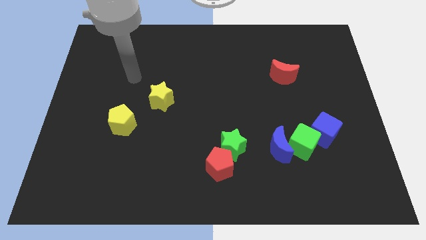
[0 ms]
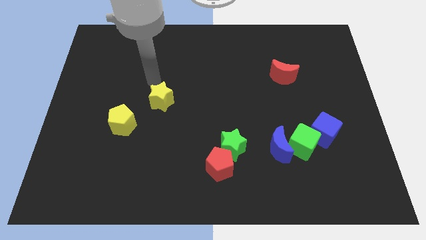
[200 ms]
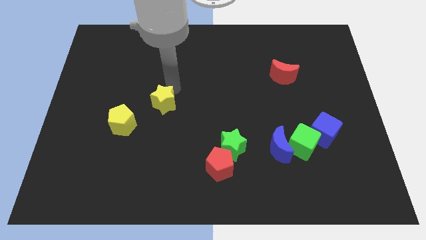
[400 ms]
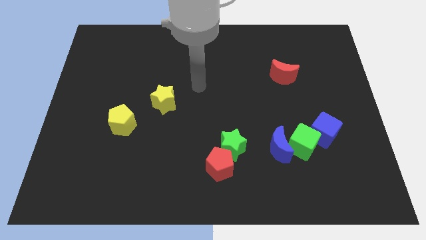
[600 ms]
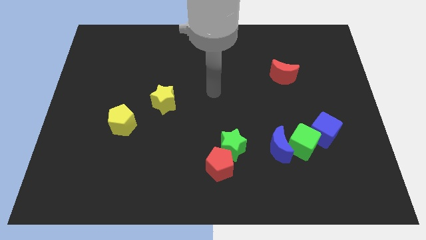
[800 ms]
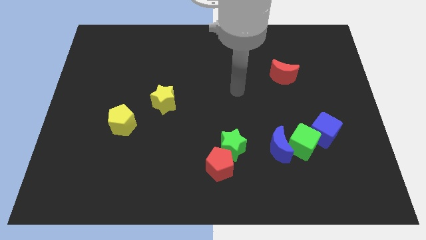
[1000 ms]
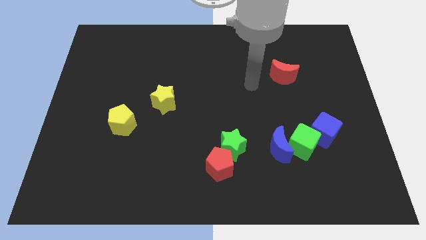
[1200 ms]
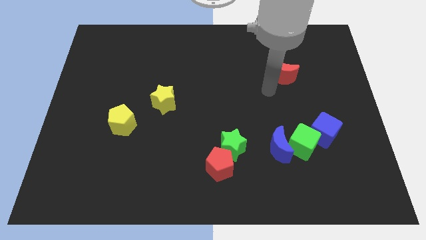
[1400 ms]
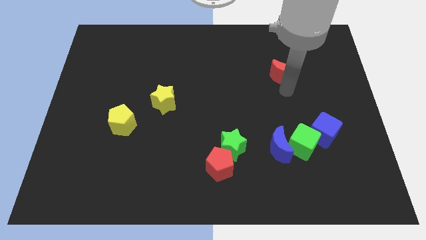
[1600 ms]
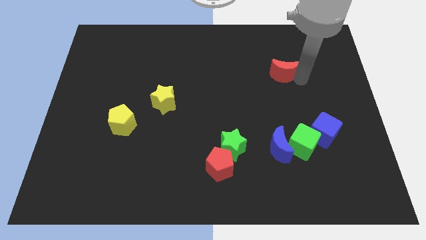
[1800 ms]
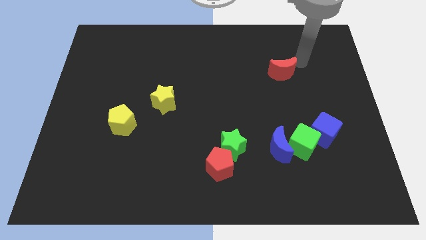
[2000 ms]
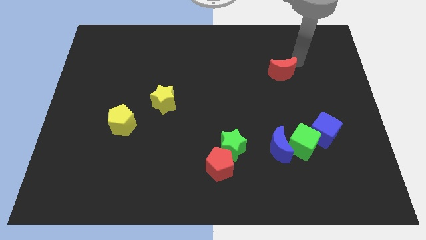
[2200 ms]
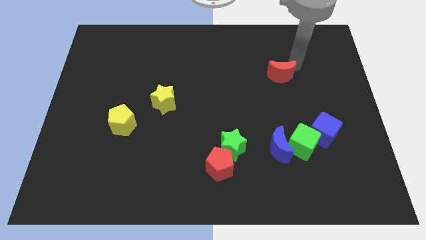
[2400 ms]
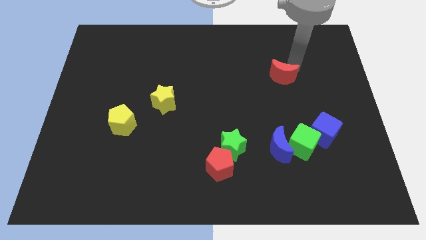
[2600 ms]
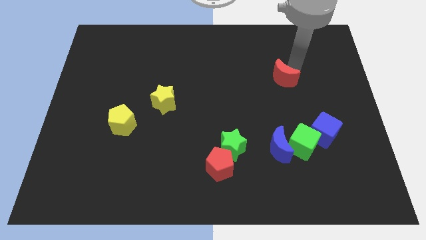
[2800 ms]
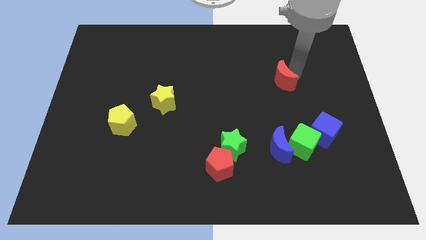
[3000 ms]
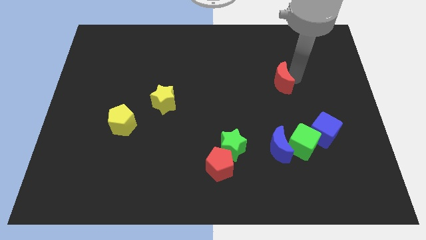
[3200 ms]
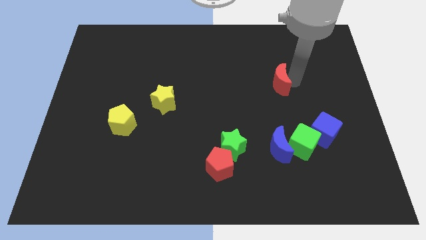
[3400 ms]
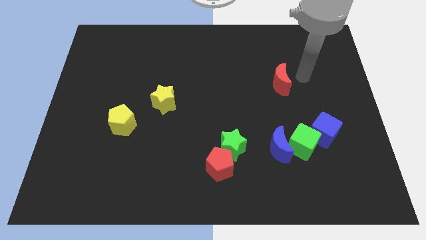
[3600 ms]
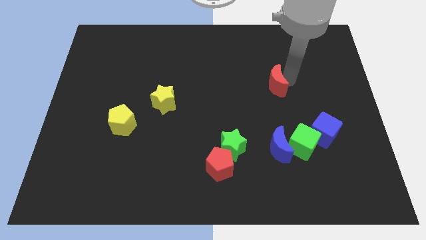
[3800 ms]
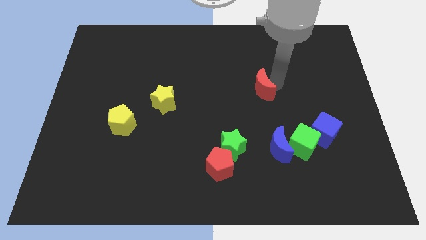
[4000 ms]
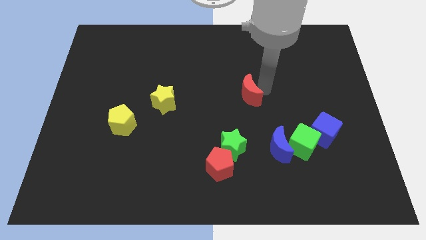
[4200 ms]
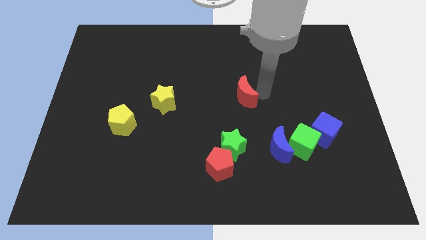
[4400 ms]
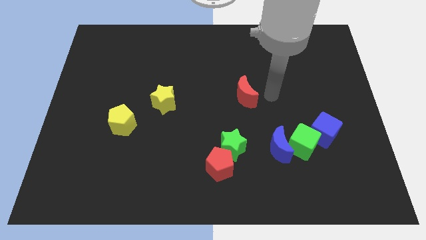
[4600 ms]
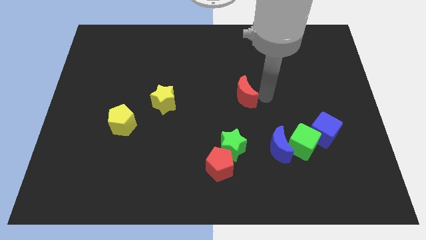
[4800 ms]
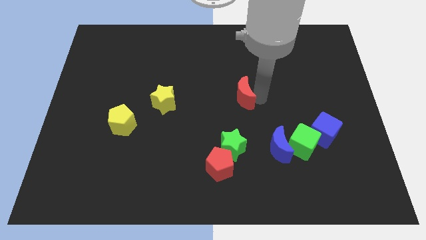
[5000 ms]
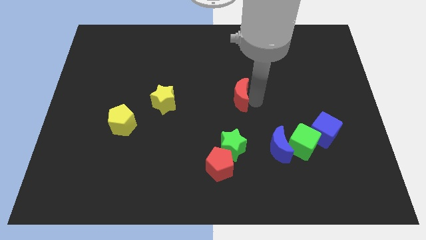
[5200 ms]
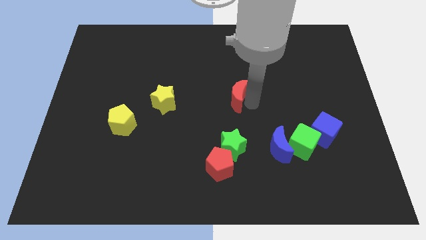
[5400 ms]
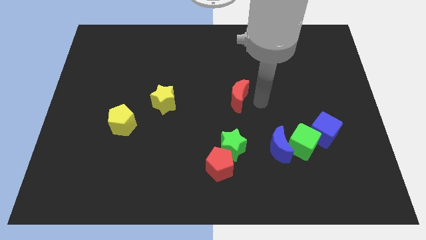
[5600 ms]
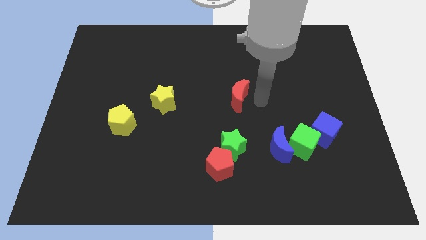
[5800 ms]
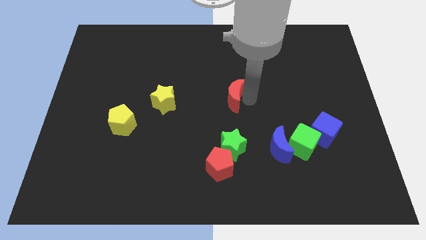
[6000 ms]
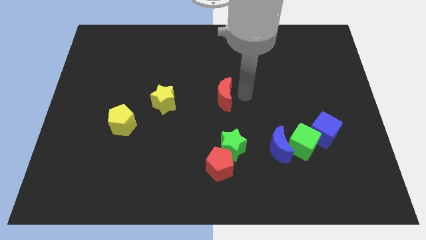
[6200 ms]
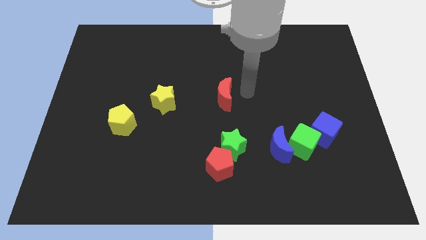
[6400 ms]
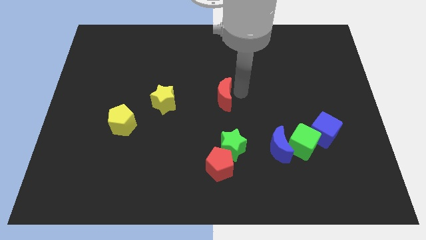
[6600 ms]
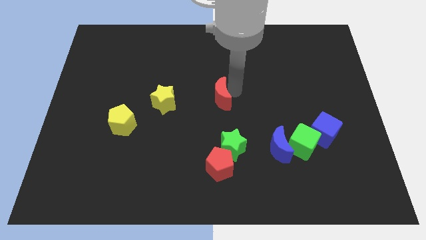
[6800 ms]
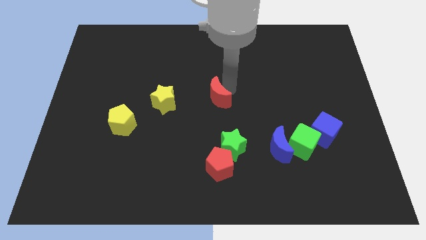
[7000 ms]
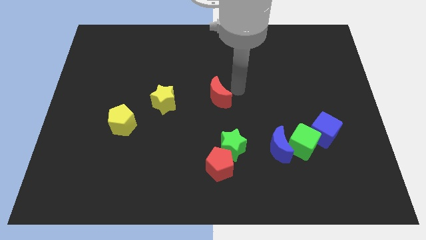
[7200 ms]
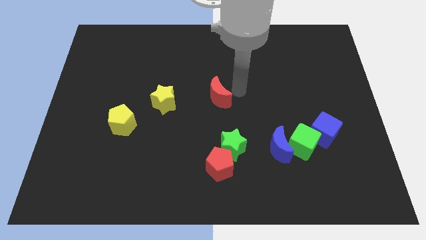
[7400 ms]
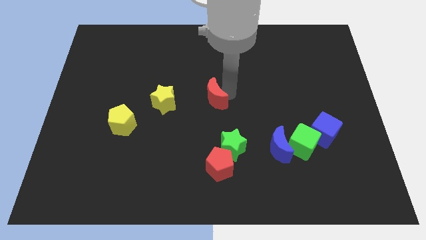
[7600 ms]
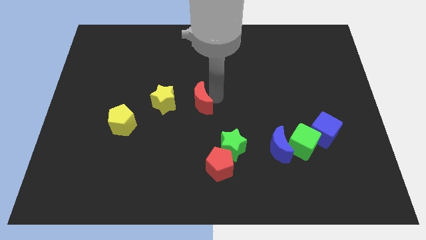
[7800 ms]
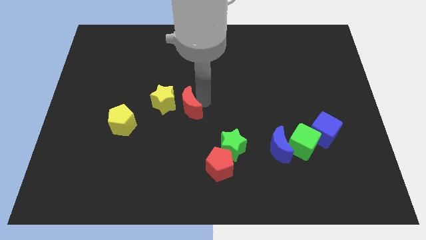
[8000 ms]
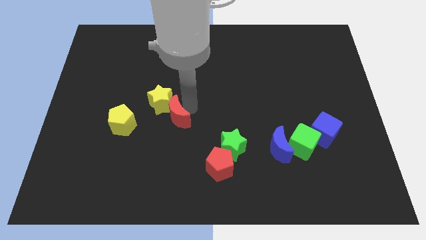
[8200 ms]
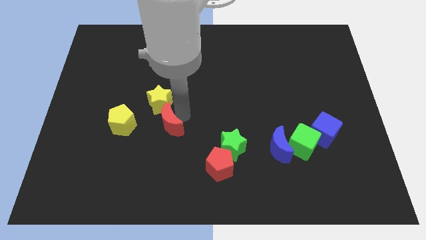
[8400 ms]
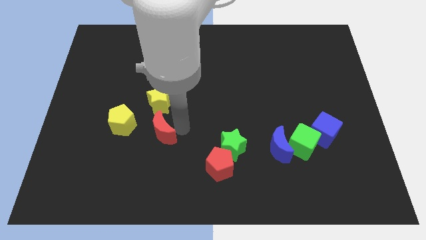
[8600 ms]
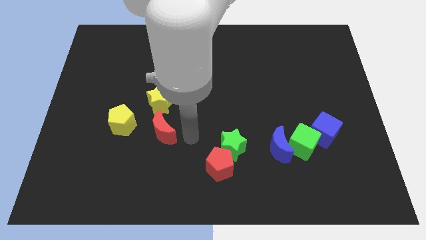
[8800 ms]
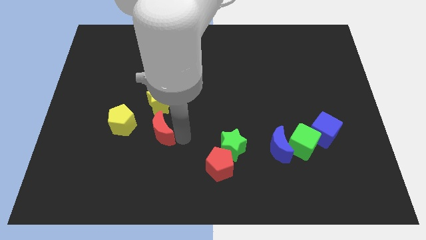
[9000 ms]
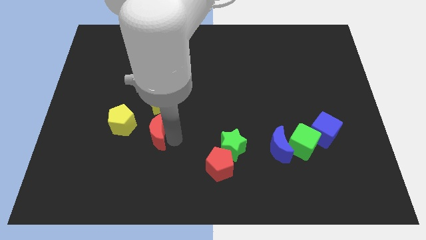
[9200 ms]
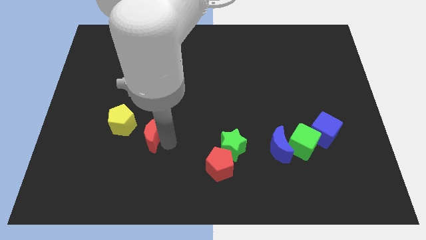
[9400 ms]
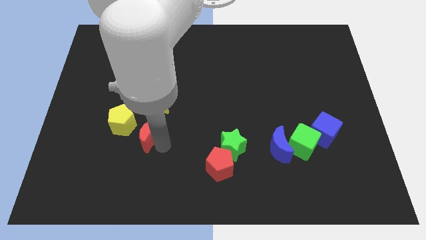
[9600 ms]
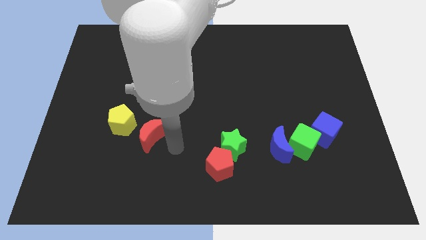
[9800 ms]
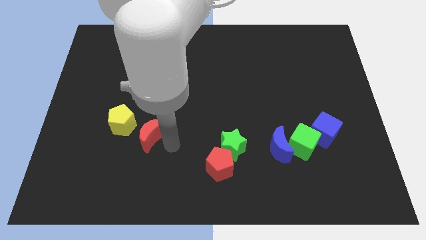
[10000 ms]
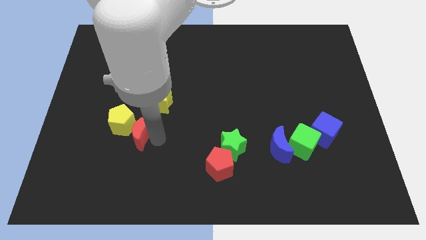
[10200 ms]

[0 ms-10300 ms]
move the red moon close to the yellow pentagon

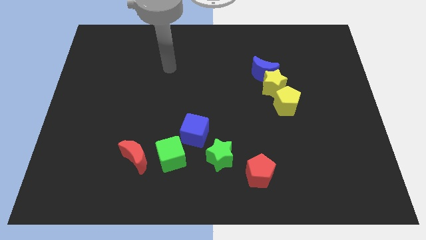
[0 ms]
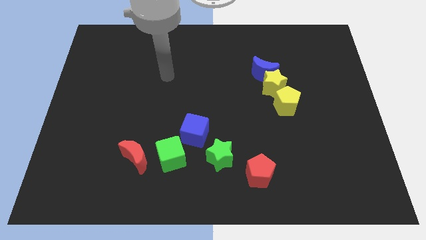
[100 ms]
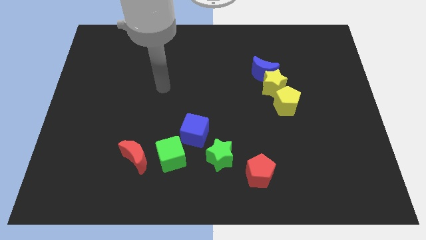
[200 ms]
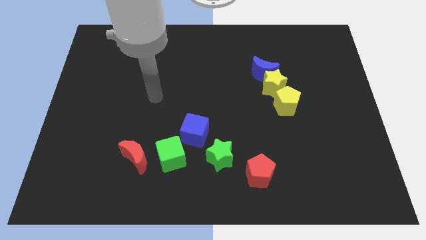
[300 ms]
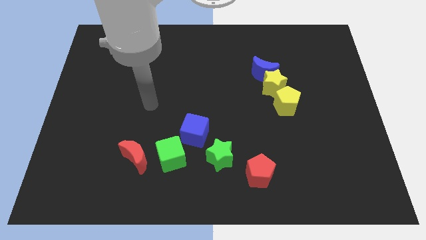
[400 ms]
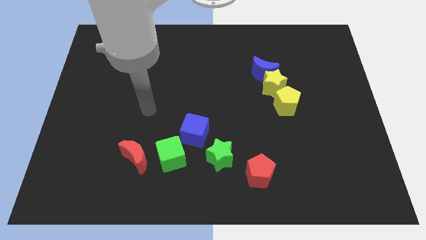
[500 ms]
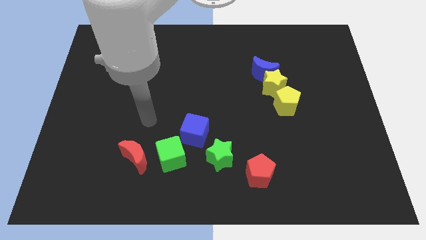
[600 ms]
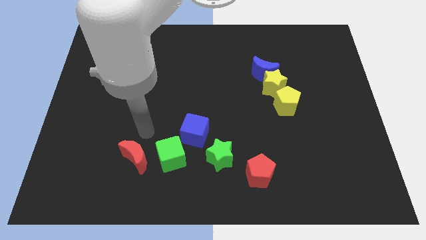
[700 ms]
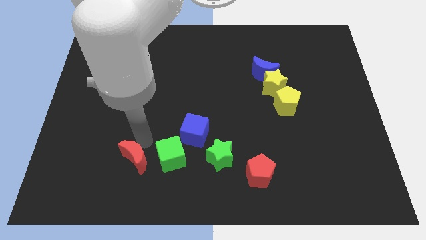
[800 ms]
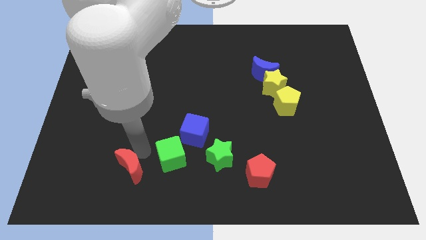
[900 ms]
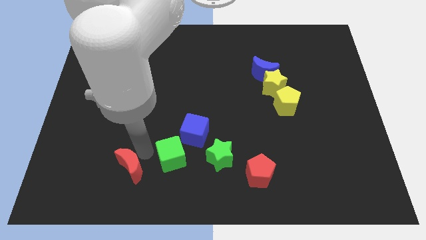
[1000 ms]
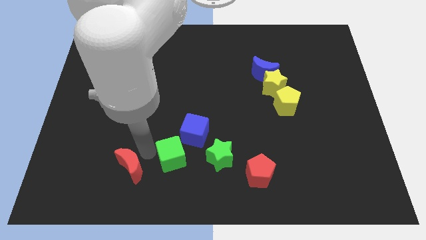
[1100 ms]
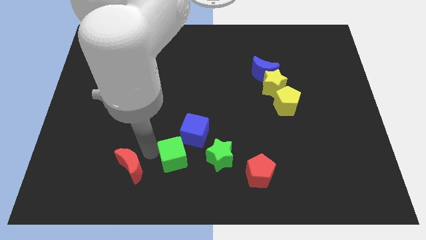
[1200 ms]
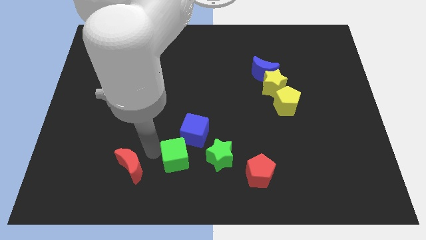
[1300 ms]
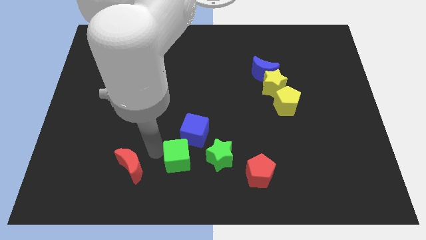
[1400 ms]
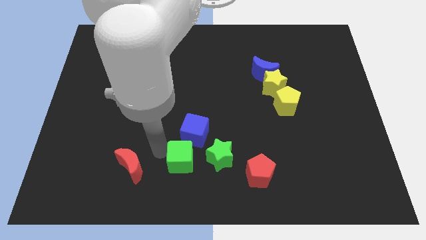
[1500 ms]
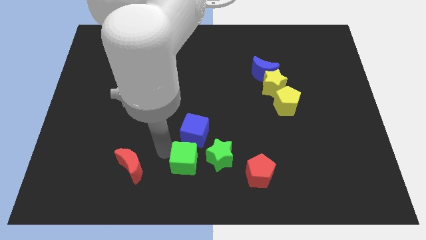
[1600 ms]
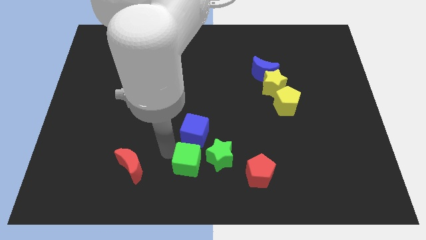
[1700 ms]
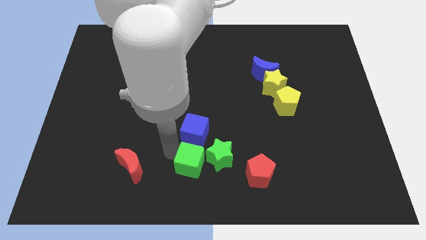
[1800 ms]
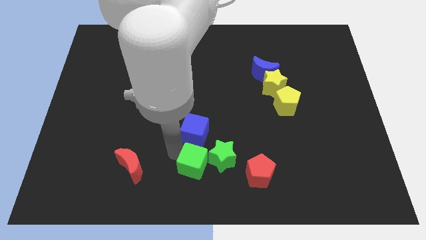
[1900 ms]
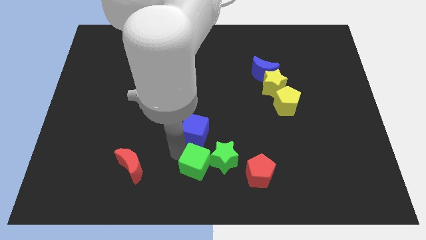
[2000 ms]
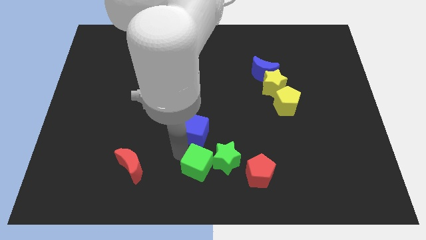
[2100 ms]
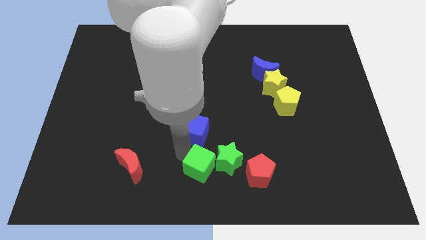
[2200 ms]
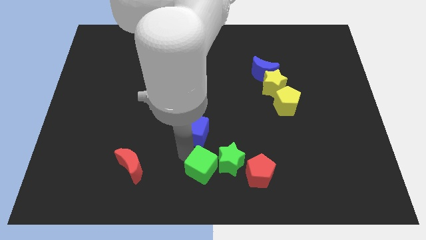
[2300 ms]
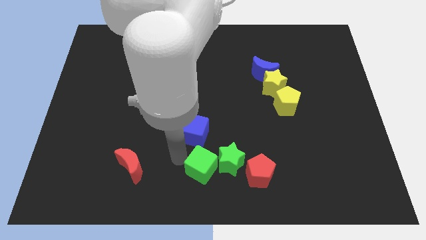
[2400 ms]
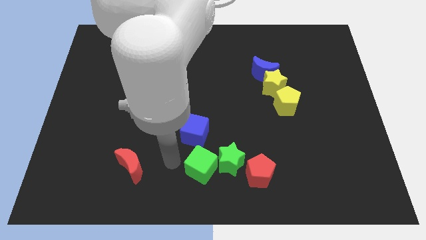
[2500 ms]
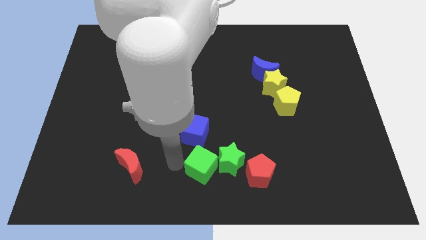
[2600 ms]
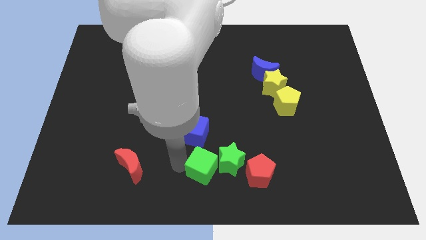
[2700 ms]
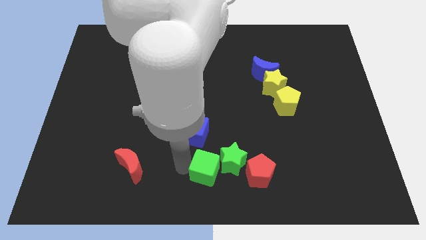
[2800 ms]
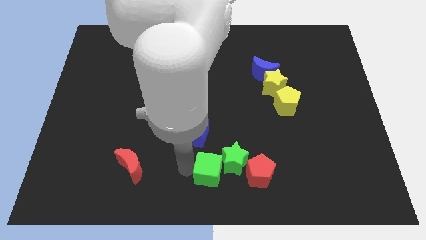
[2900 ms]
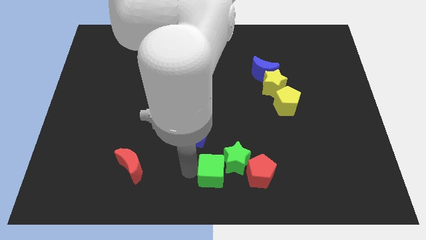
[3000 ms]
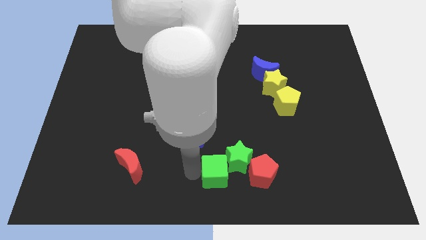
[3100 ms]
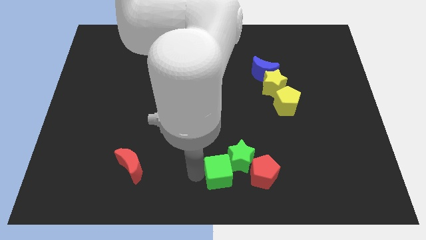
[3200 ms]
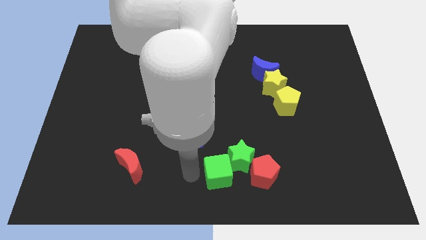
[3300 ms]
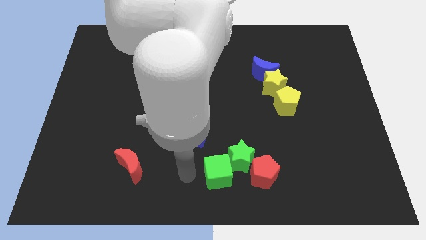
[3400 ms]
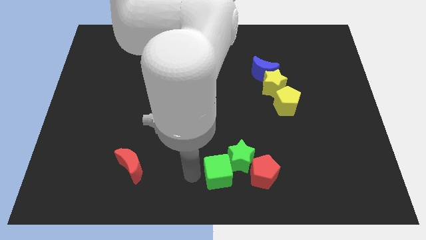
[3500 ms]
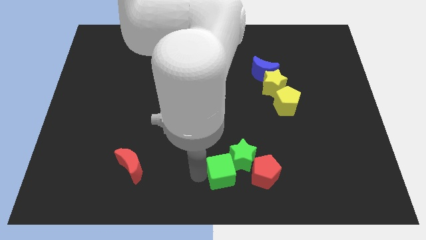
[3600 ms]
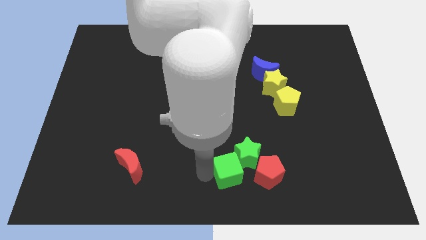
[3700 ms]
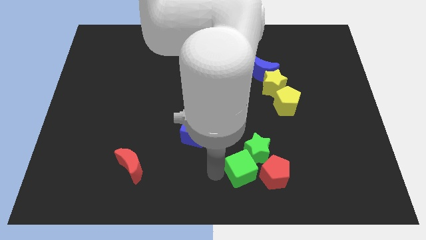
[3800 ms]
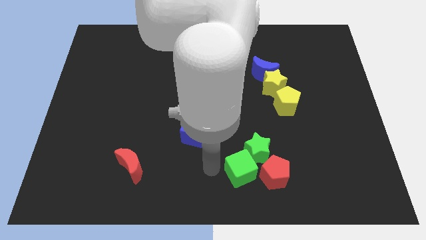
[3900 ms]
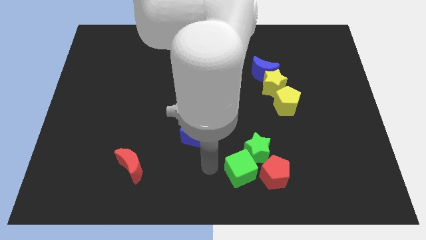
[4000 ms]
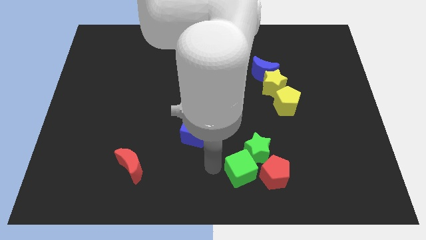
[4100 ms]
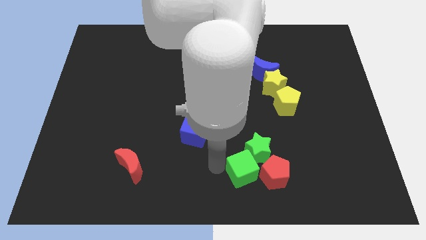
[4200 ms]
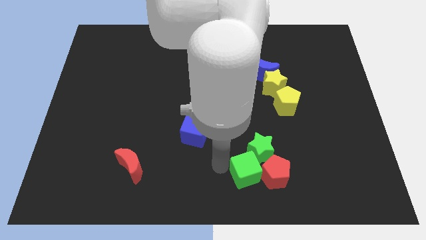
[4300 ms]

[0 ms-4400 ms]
slide the green cube to the red pentagon
